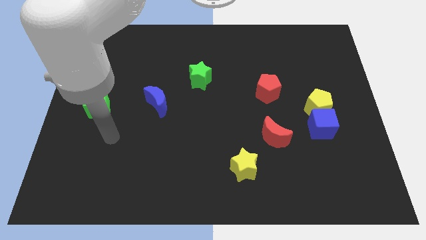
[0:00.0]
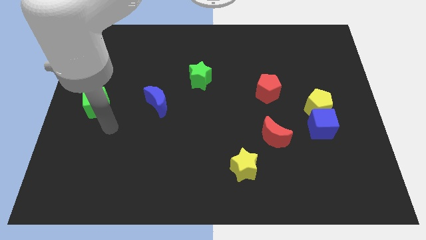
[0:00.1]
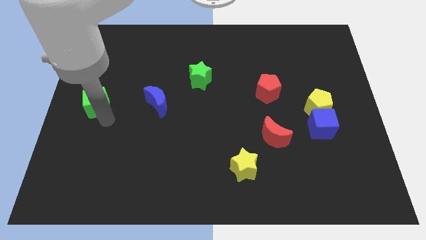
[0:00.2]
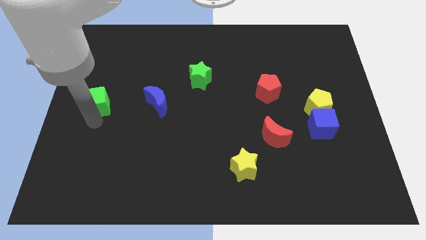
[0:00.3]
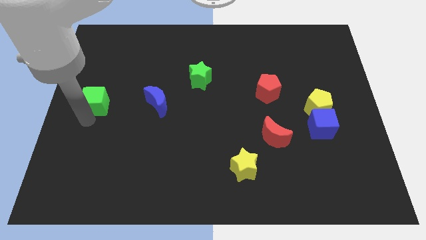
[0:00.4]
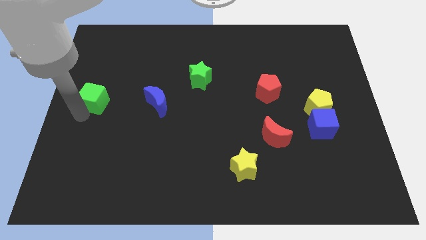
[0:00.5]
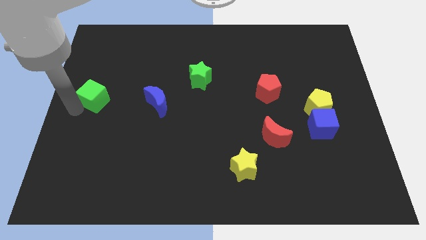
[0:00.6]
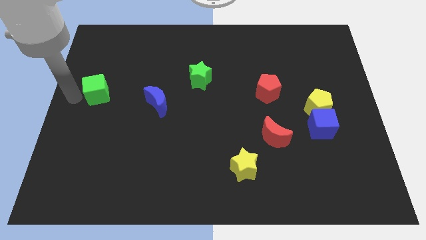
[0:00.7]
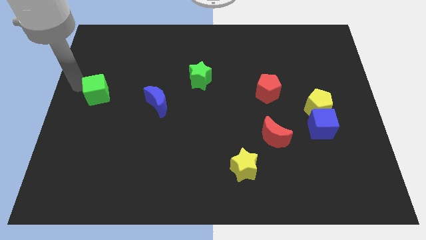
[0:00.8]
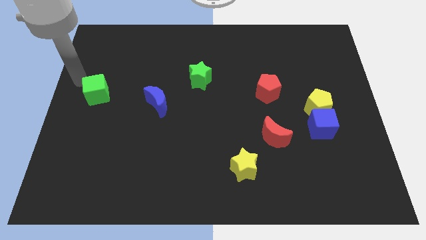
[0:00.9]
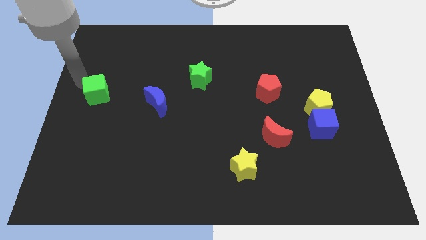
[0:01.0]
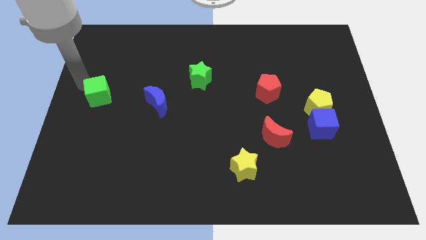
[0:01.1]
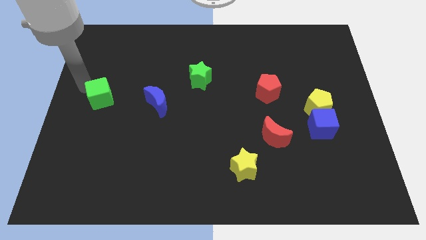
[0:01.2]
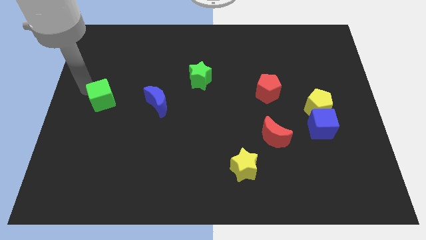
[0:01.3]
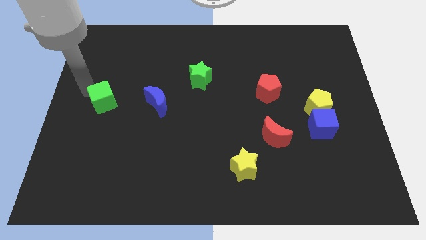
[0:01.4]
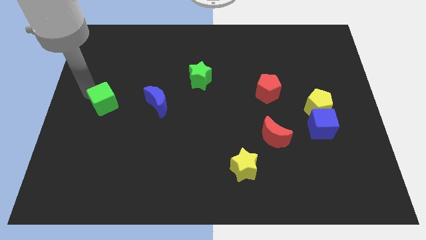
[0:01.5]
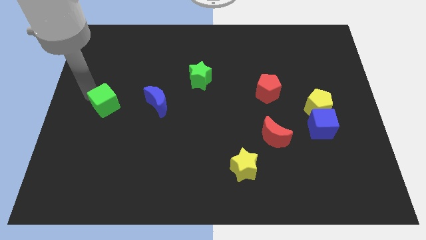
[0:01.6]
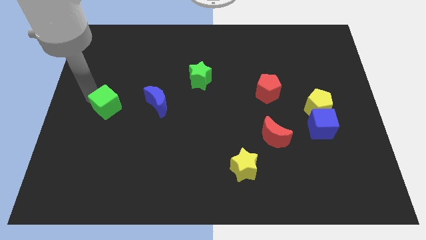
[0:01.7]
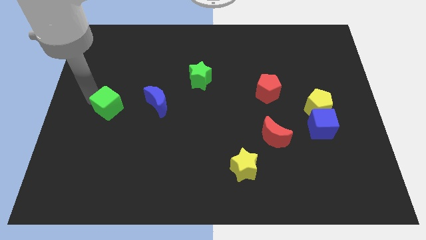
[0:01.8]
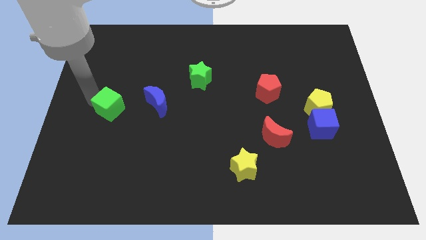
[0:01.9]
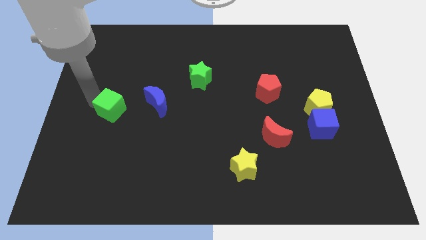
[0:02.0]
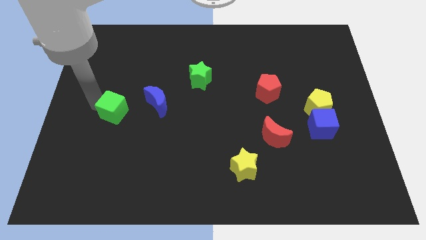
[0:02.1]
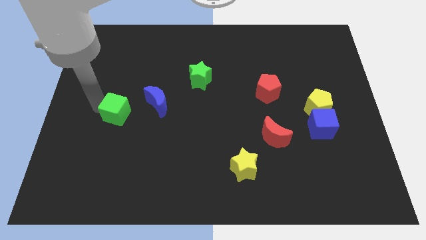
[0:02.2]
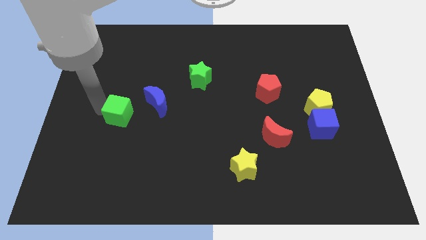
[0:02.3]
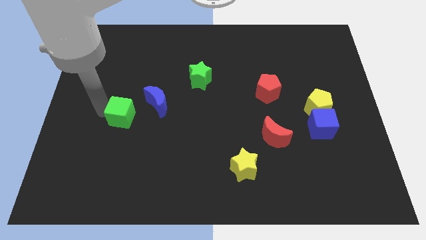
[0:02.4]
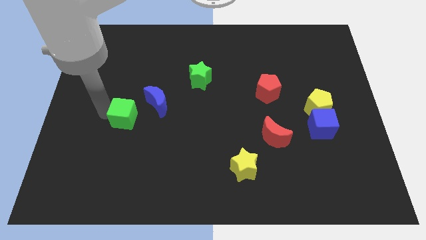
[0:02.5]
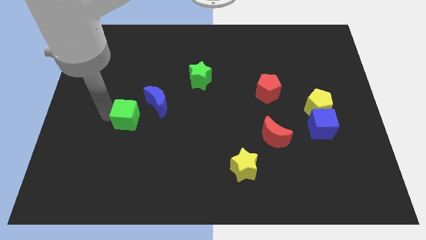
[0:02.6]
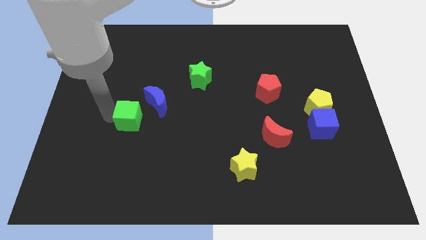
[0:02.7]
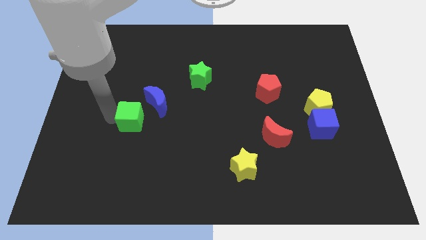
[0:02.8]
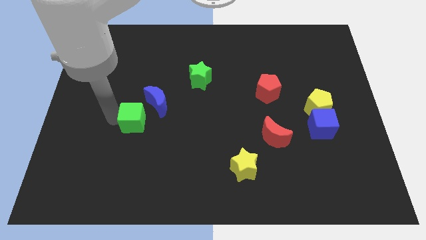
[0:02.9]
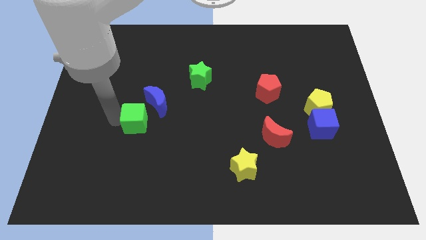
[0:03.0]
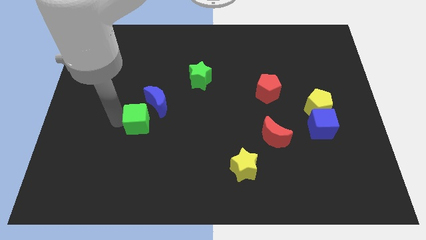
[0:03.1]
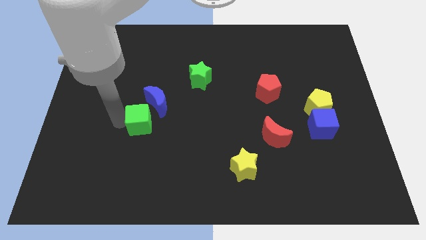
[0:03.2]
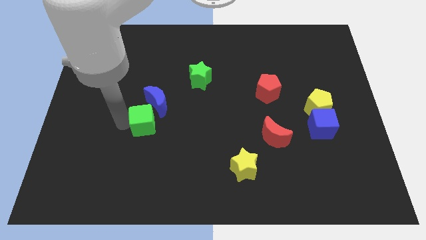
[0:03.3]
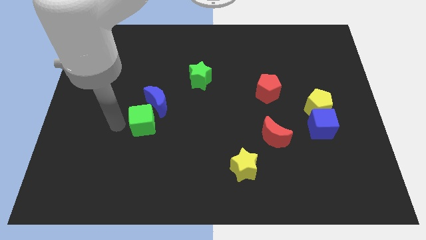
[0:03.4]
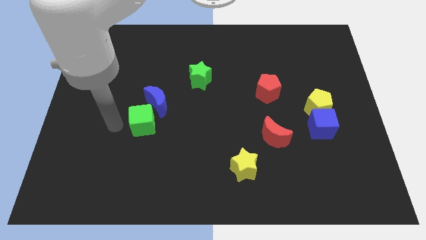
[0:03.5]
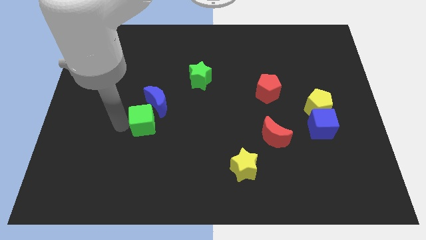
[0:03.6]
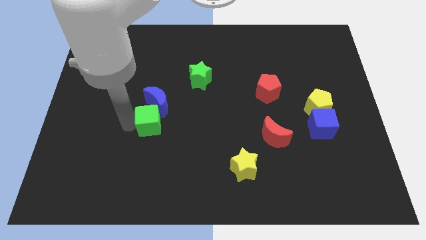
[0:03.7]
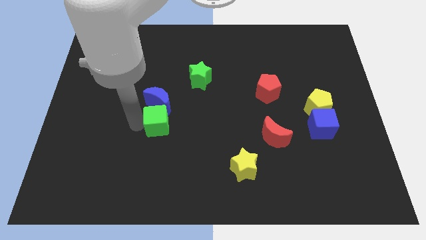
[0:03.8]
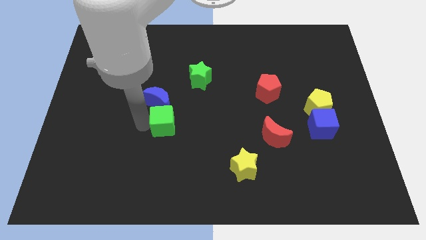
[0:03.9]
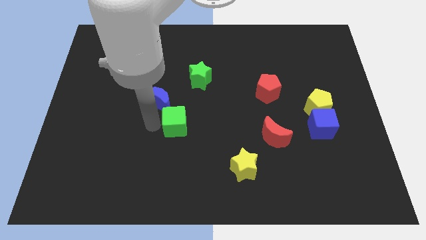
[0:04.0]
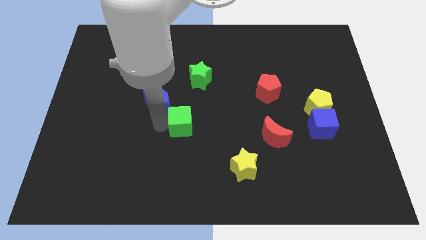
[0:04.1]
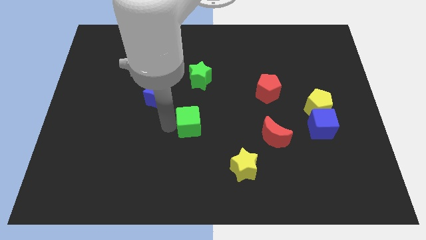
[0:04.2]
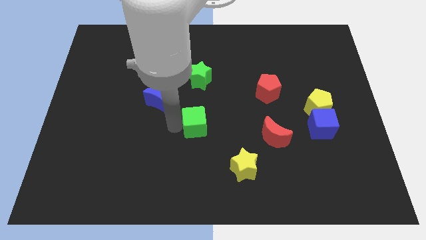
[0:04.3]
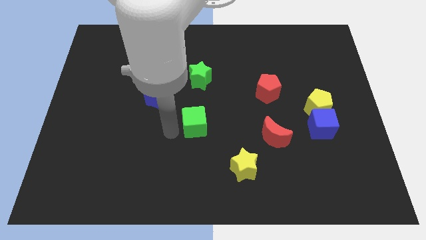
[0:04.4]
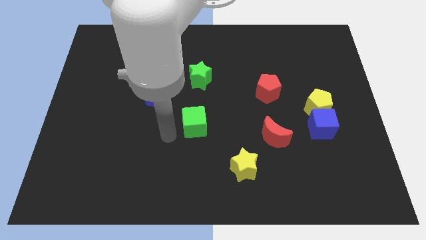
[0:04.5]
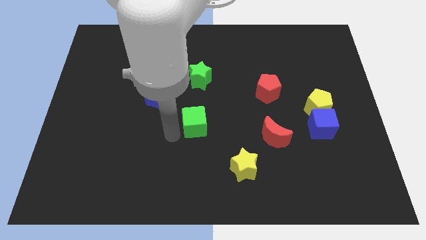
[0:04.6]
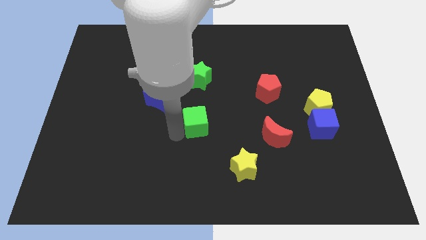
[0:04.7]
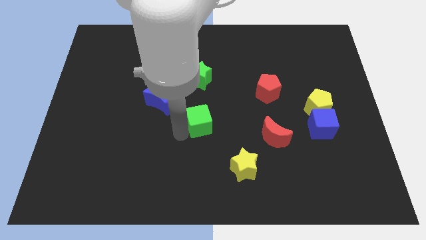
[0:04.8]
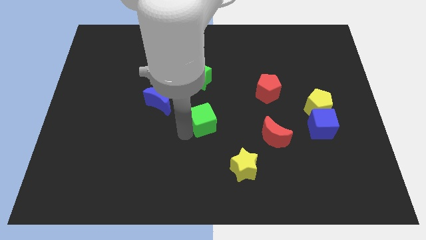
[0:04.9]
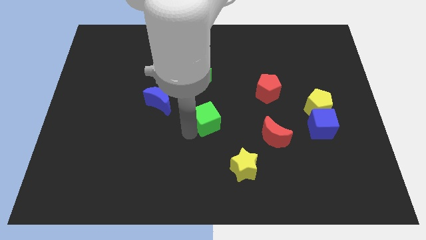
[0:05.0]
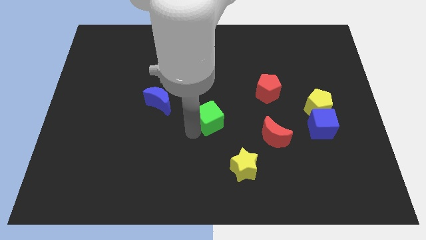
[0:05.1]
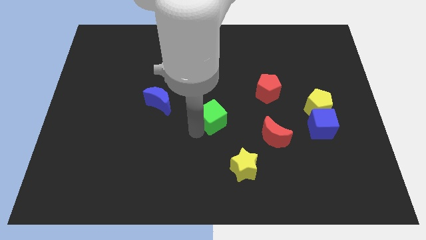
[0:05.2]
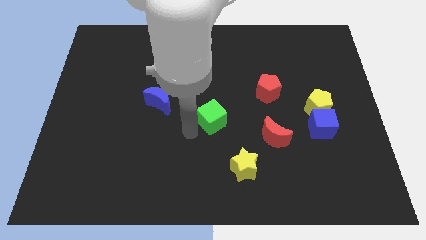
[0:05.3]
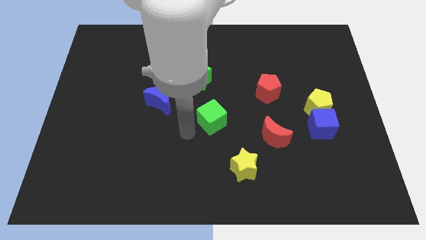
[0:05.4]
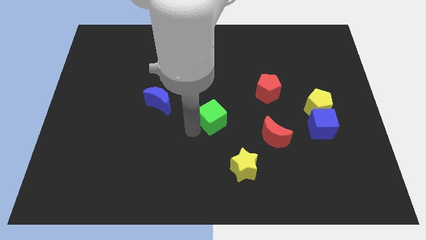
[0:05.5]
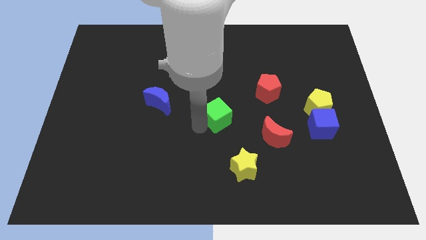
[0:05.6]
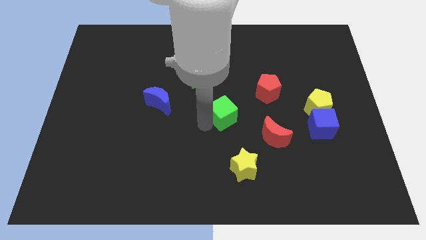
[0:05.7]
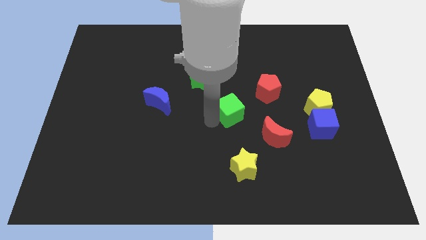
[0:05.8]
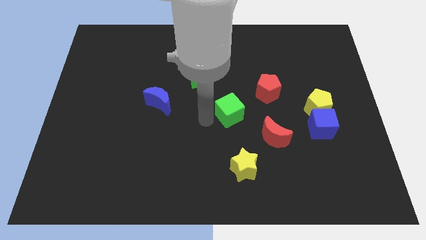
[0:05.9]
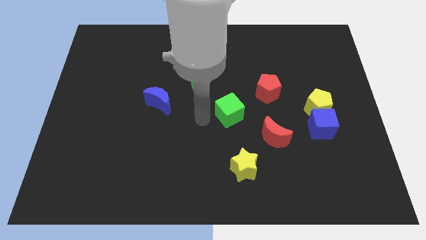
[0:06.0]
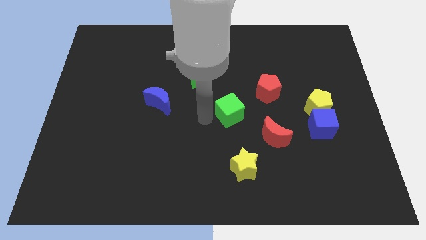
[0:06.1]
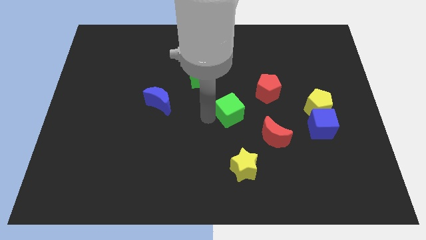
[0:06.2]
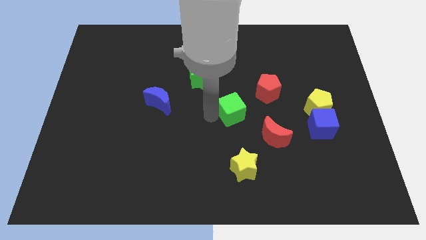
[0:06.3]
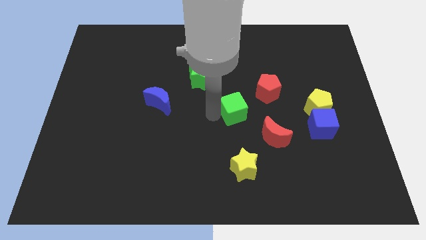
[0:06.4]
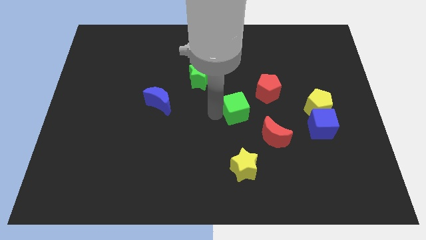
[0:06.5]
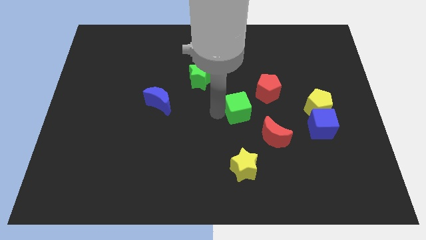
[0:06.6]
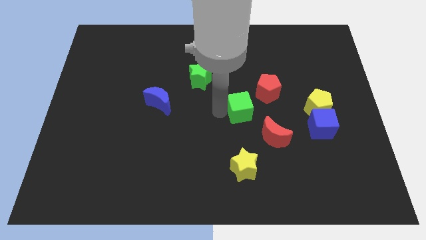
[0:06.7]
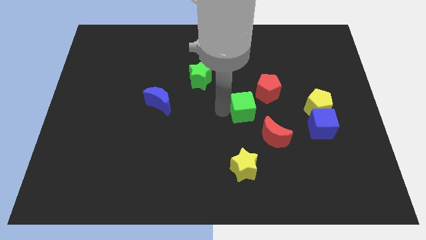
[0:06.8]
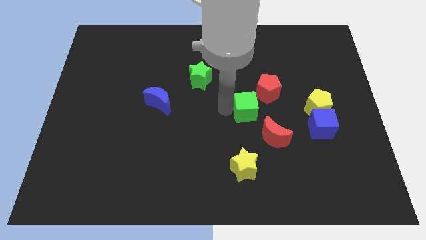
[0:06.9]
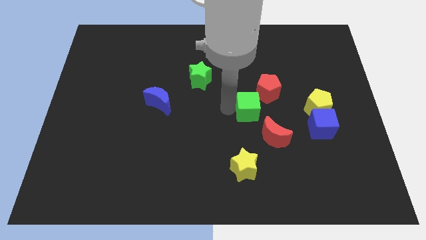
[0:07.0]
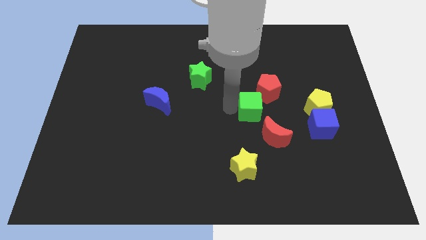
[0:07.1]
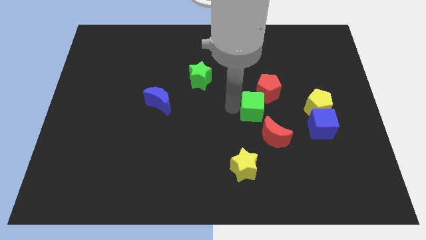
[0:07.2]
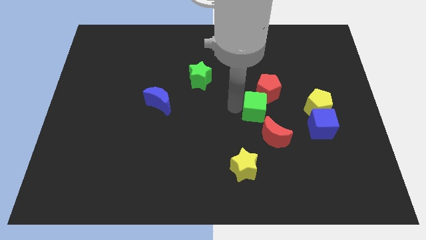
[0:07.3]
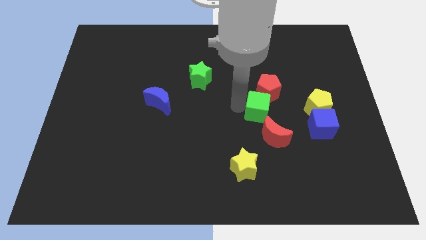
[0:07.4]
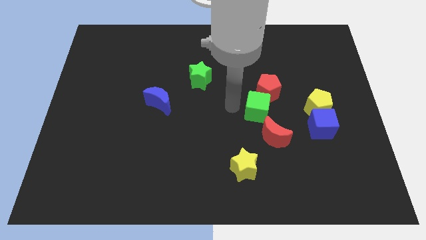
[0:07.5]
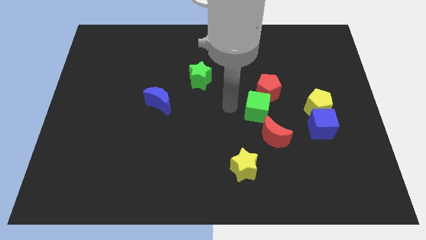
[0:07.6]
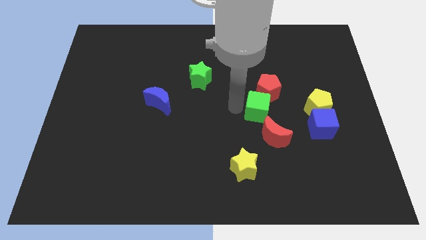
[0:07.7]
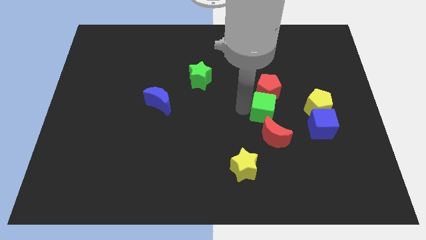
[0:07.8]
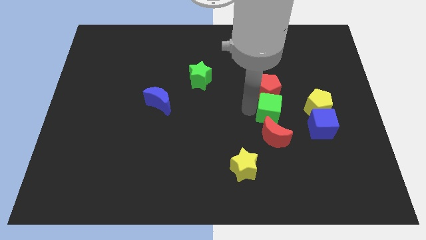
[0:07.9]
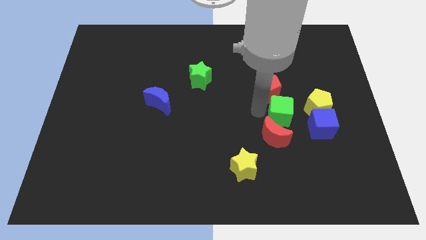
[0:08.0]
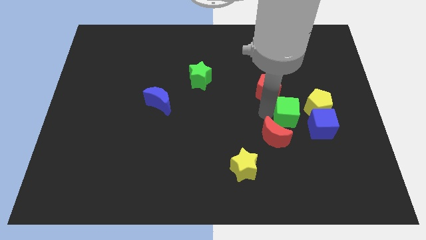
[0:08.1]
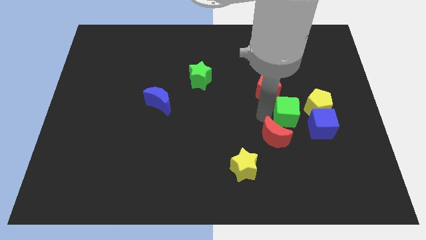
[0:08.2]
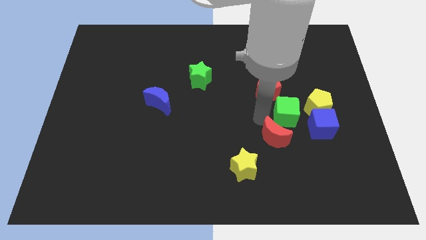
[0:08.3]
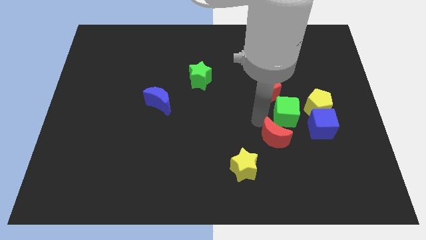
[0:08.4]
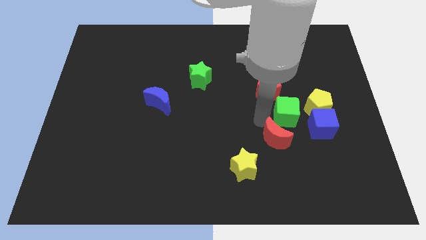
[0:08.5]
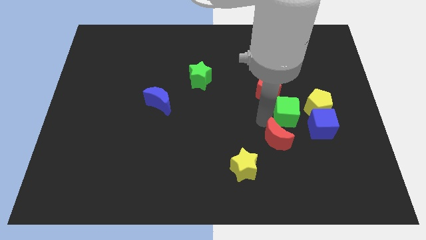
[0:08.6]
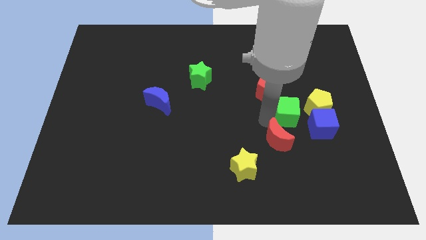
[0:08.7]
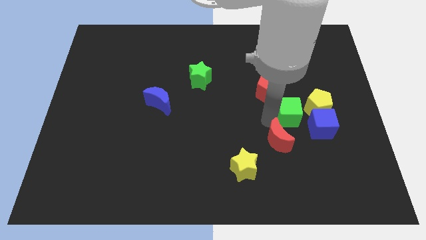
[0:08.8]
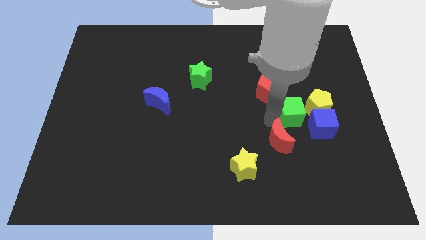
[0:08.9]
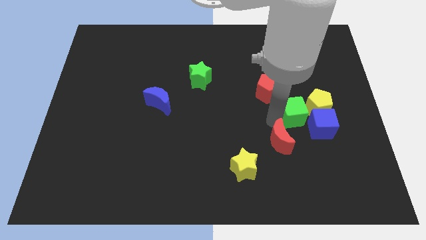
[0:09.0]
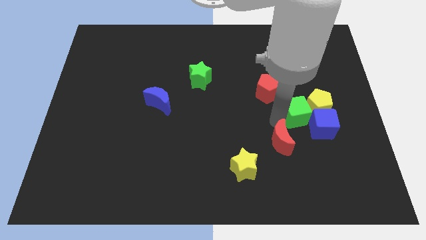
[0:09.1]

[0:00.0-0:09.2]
slide the green cube next to the yellow pentagon
